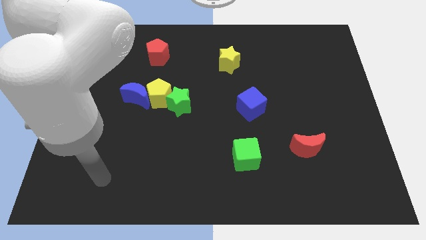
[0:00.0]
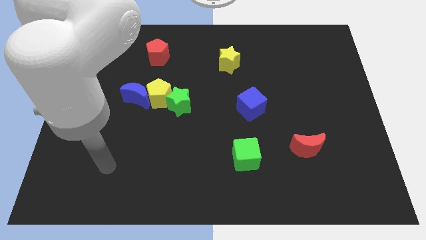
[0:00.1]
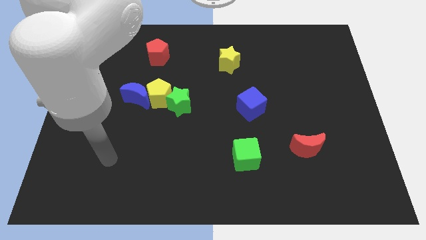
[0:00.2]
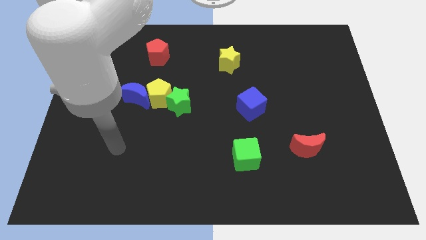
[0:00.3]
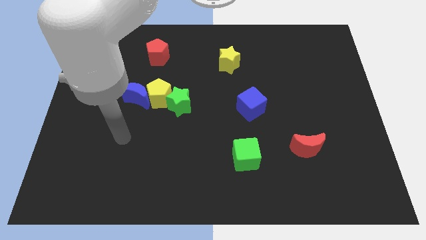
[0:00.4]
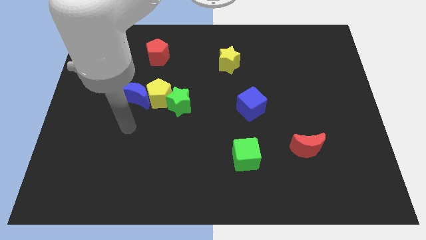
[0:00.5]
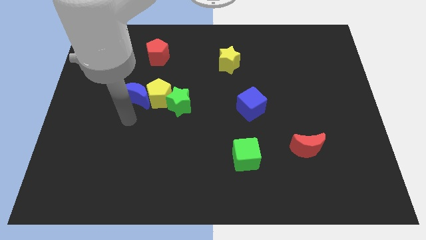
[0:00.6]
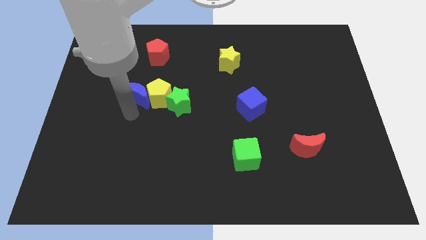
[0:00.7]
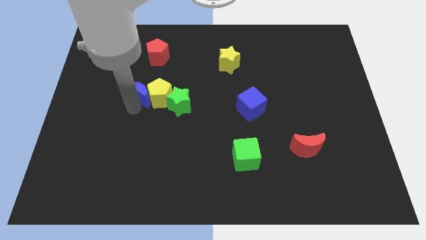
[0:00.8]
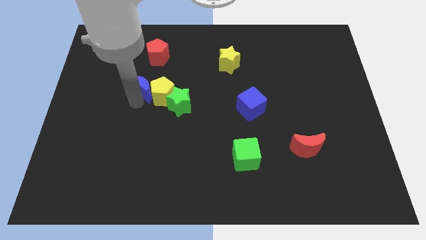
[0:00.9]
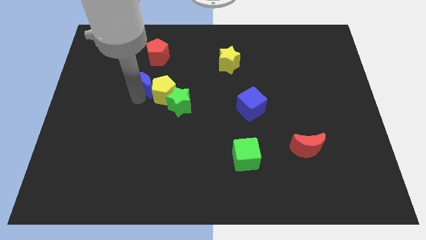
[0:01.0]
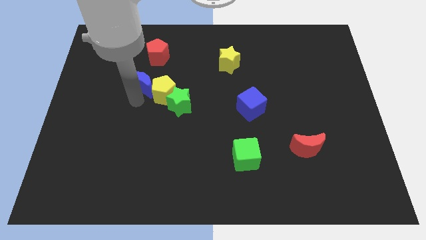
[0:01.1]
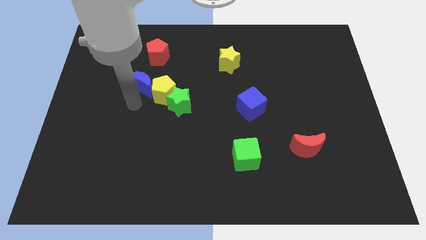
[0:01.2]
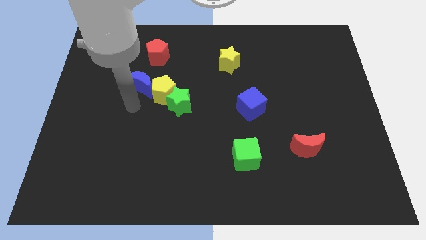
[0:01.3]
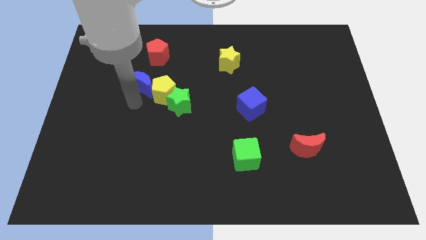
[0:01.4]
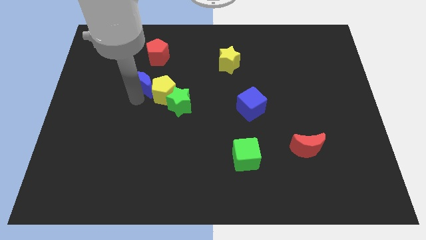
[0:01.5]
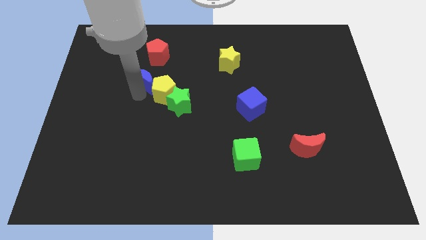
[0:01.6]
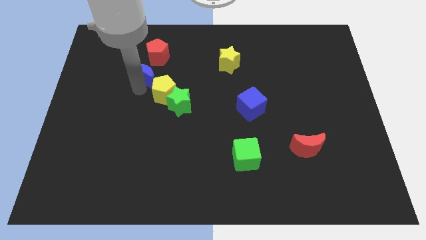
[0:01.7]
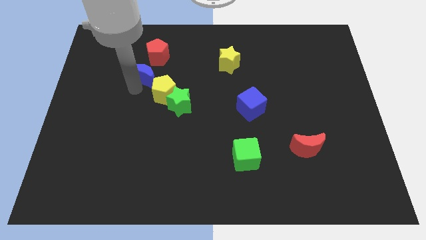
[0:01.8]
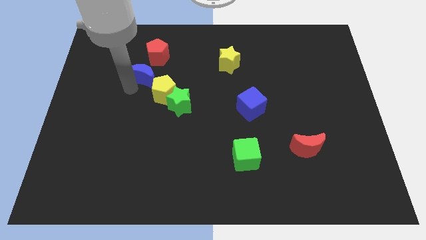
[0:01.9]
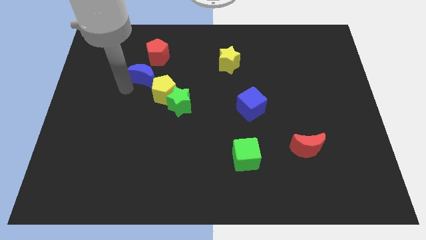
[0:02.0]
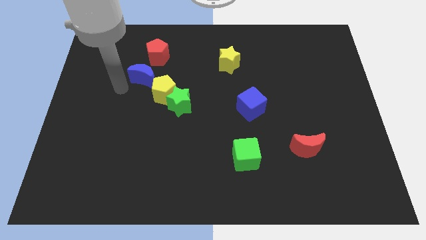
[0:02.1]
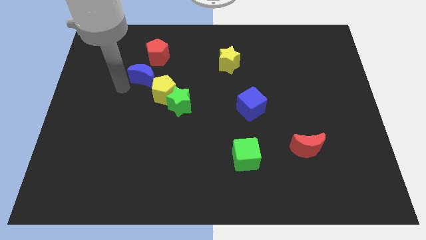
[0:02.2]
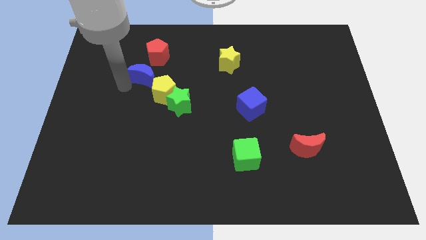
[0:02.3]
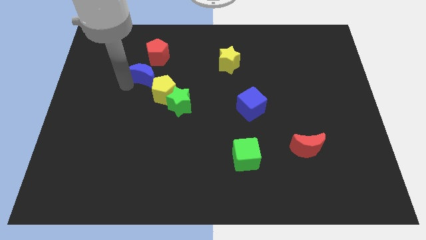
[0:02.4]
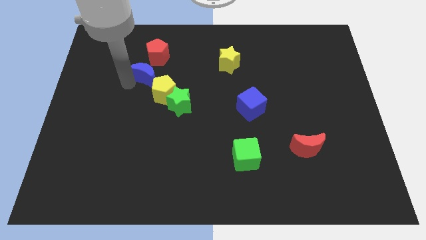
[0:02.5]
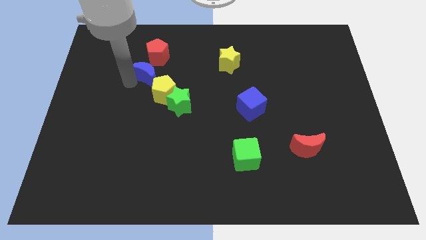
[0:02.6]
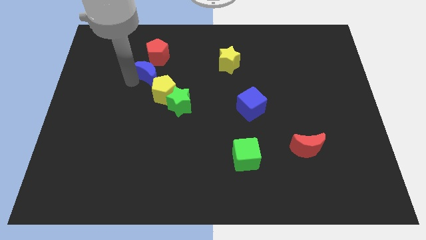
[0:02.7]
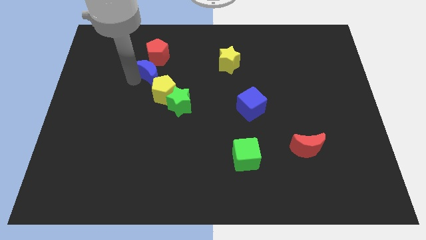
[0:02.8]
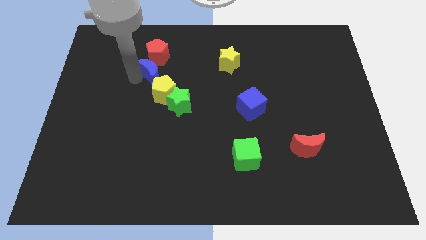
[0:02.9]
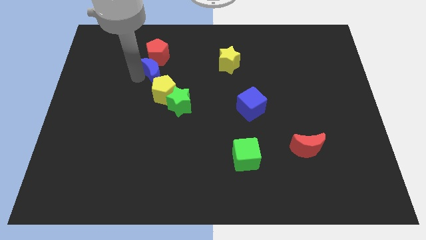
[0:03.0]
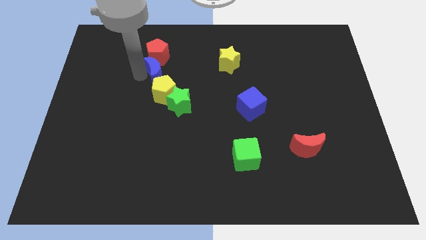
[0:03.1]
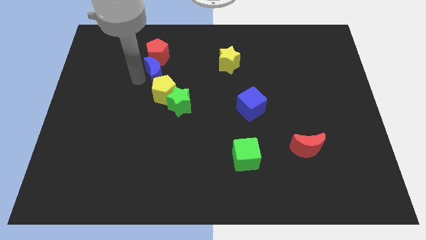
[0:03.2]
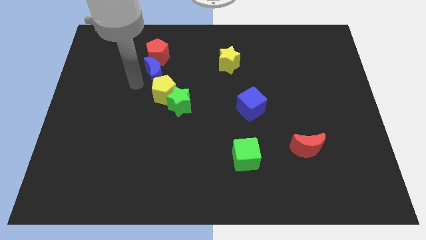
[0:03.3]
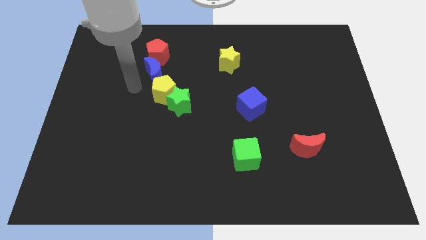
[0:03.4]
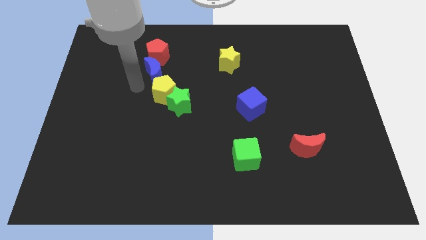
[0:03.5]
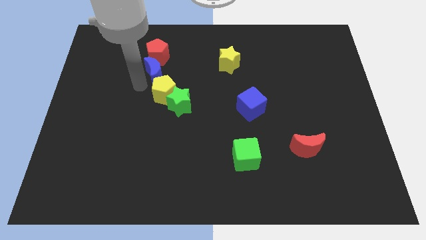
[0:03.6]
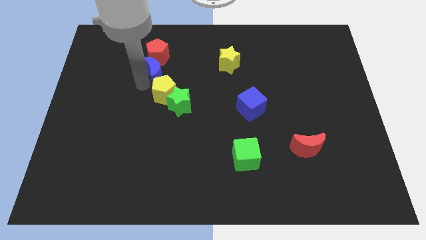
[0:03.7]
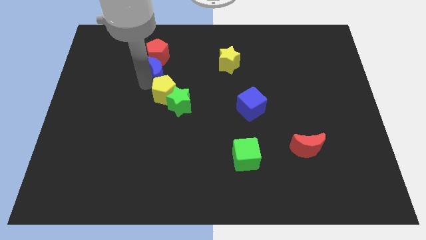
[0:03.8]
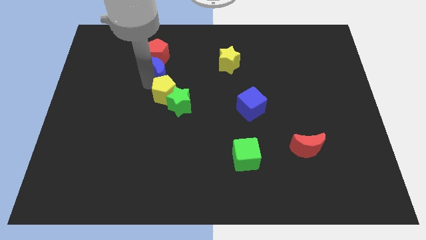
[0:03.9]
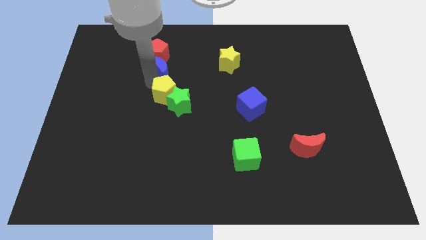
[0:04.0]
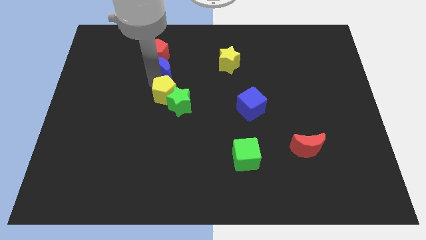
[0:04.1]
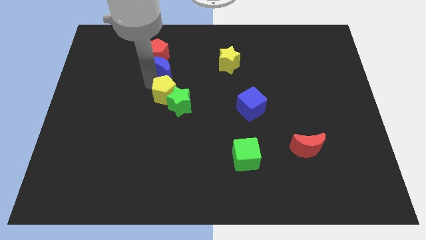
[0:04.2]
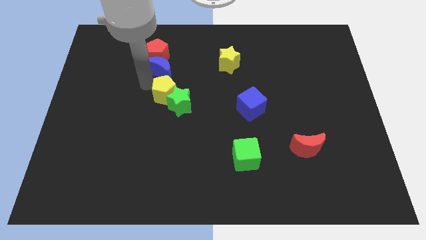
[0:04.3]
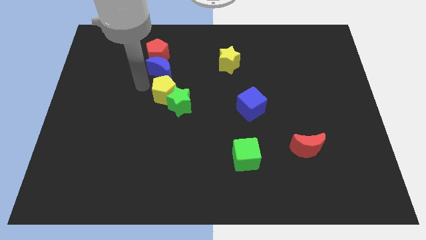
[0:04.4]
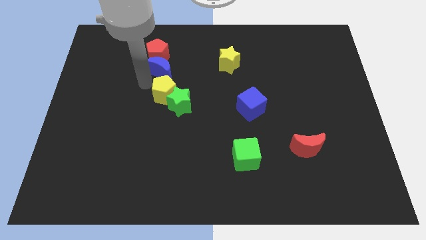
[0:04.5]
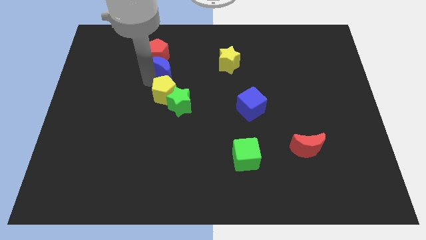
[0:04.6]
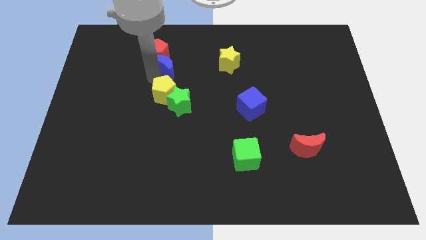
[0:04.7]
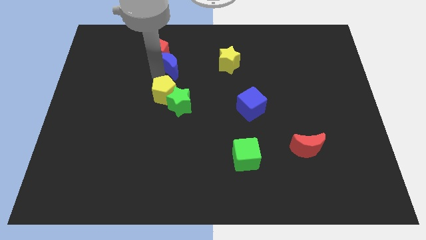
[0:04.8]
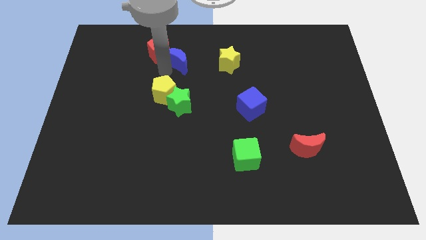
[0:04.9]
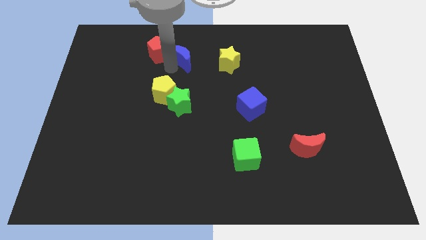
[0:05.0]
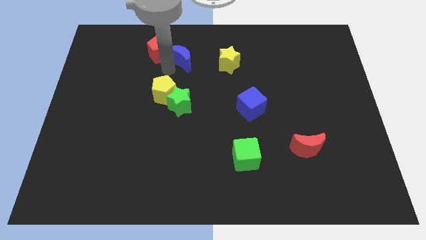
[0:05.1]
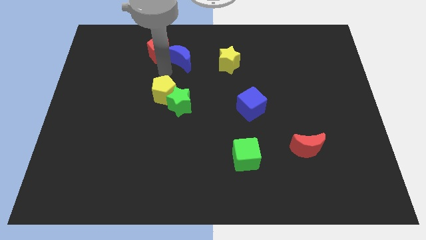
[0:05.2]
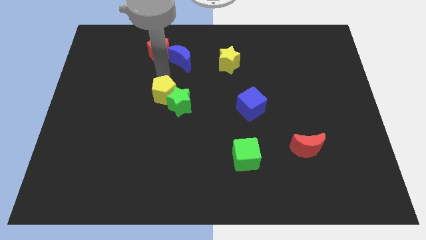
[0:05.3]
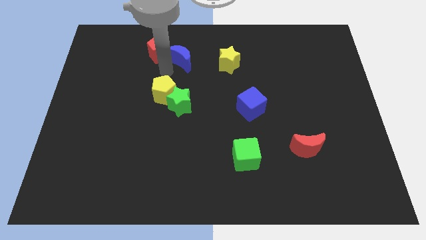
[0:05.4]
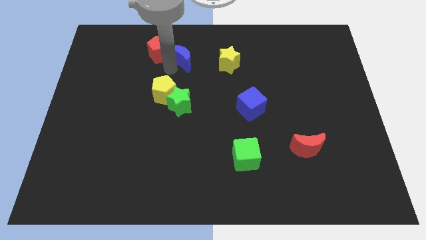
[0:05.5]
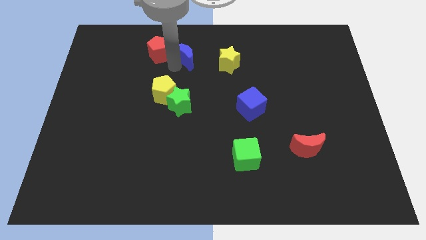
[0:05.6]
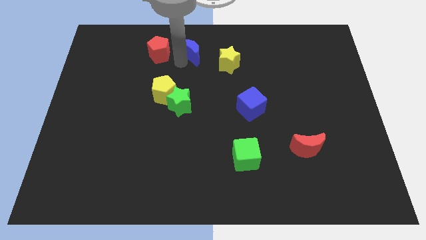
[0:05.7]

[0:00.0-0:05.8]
put the blue moon to the towards your base

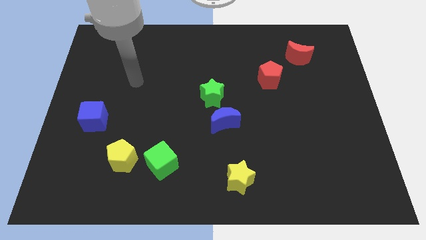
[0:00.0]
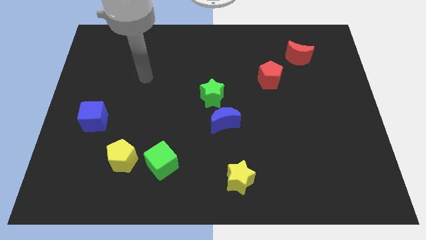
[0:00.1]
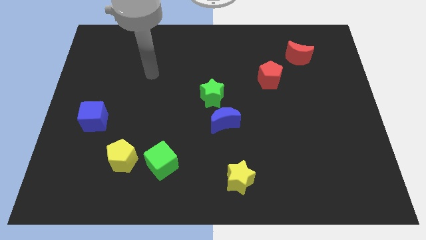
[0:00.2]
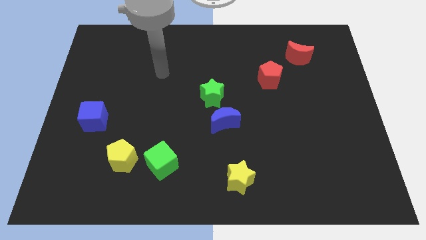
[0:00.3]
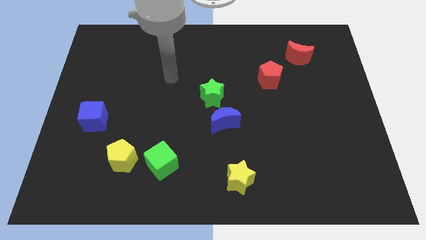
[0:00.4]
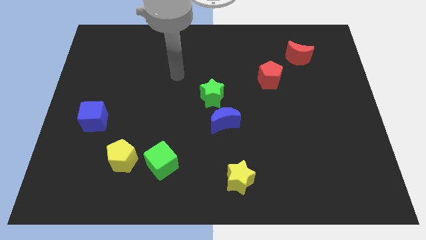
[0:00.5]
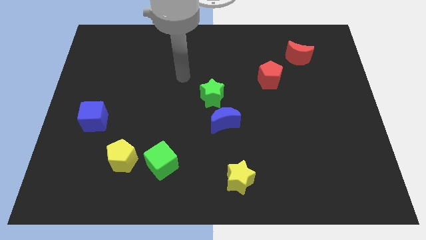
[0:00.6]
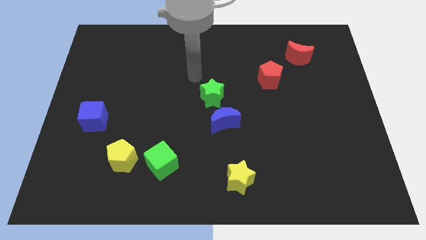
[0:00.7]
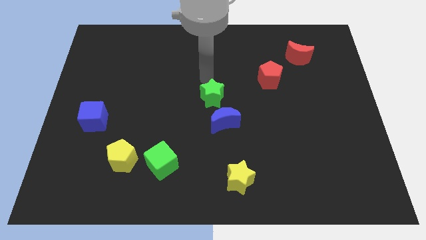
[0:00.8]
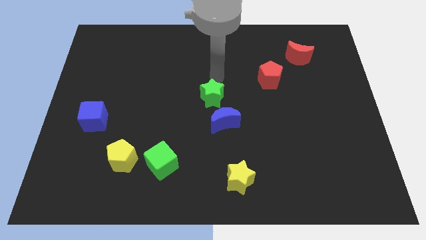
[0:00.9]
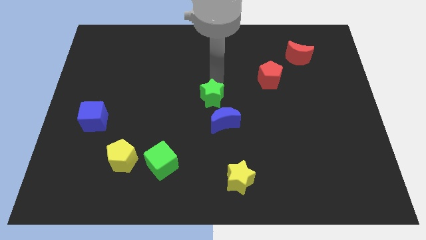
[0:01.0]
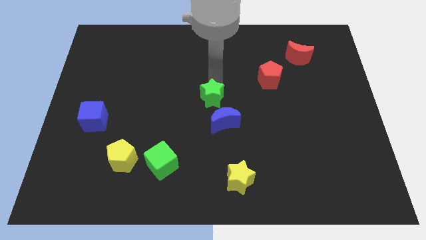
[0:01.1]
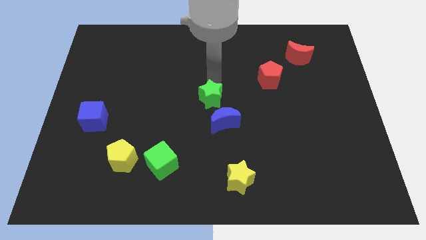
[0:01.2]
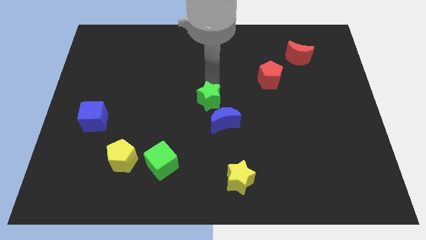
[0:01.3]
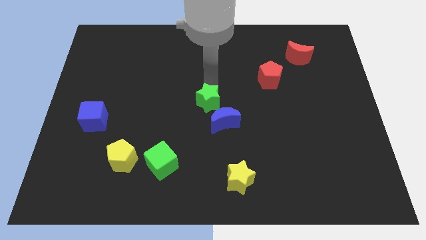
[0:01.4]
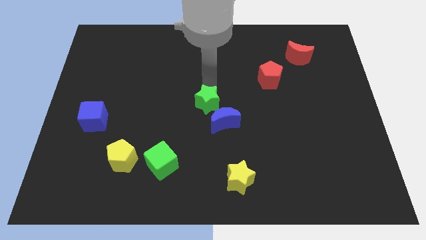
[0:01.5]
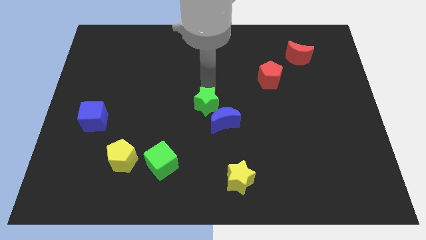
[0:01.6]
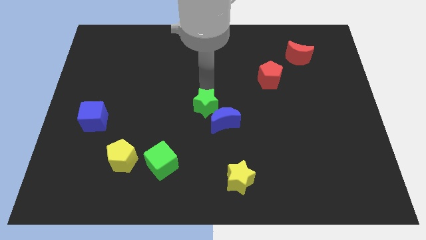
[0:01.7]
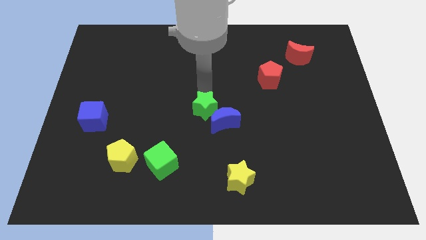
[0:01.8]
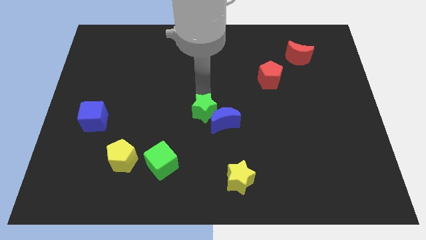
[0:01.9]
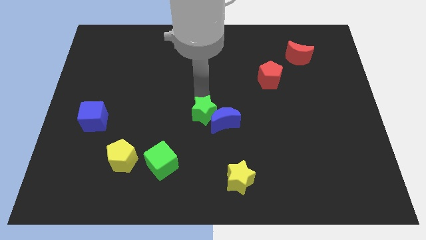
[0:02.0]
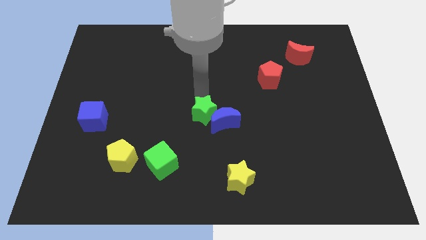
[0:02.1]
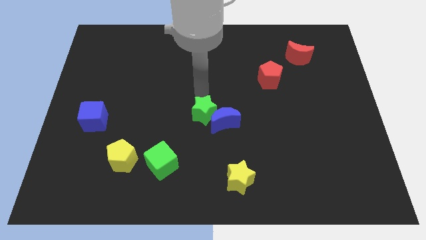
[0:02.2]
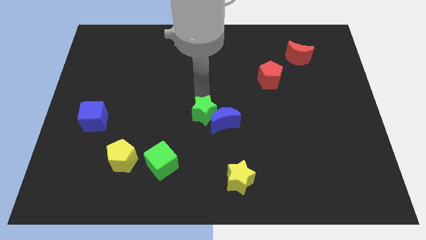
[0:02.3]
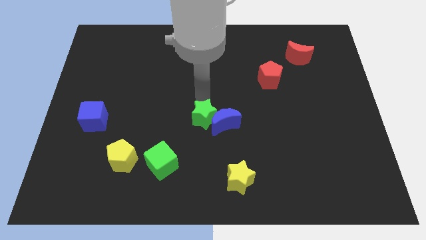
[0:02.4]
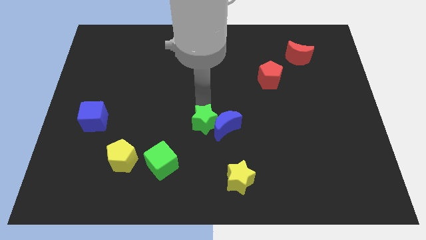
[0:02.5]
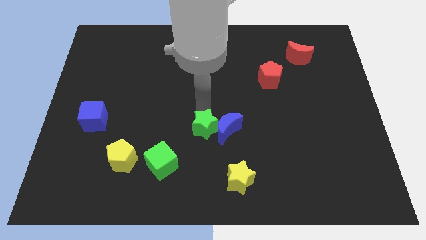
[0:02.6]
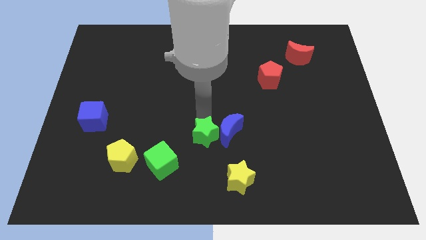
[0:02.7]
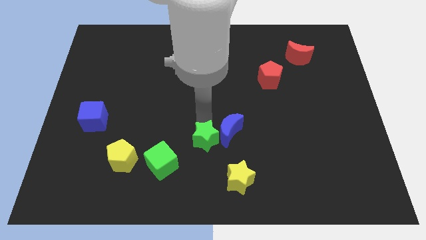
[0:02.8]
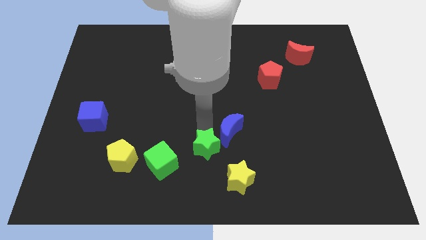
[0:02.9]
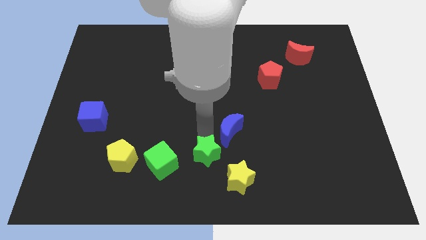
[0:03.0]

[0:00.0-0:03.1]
move the green star to the bottom
